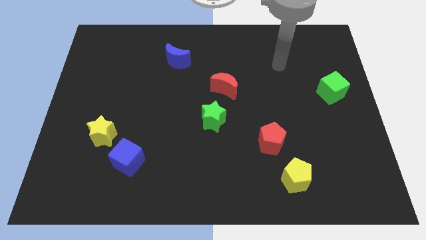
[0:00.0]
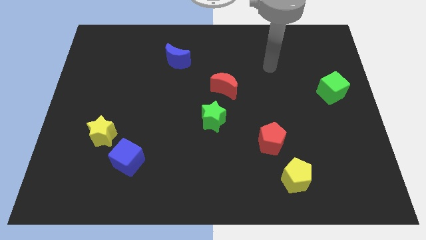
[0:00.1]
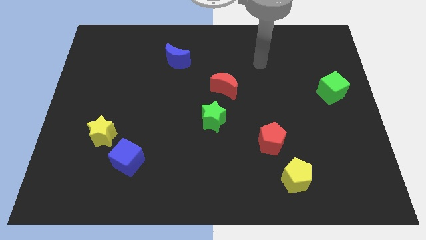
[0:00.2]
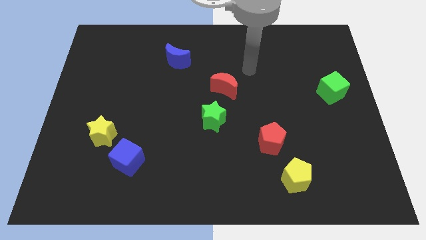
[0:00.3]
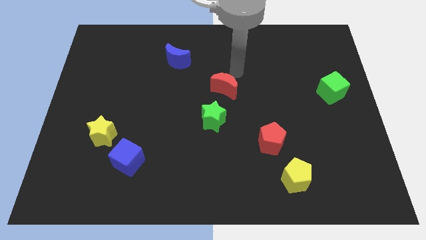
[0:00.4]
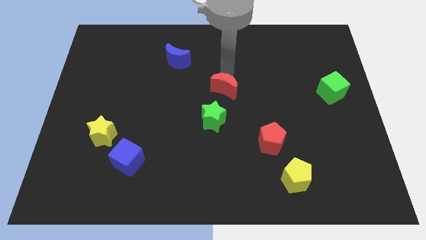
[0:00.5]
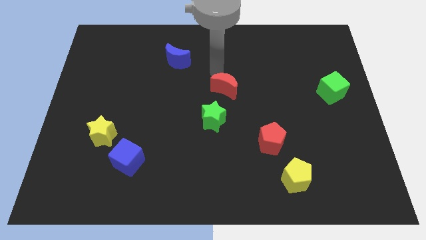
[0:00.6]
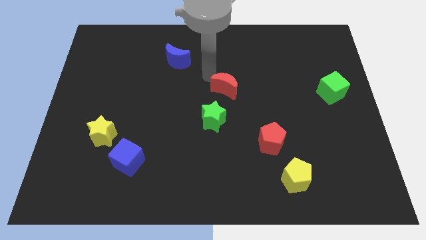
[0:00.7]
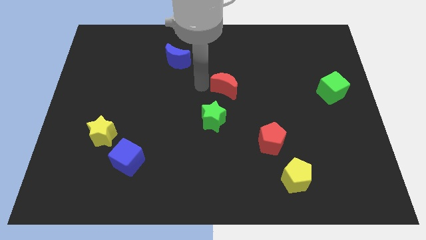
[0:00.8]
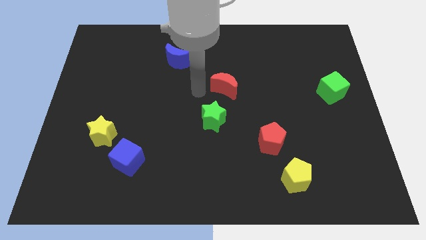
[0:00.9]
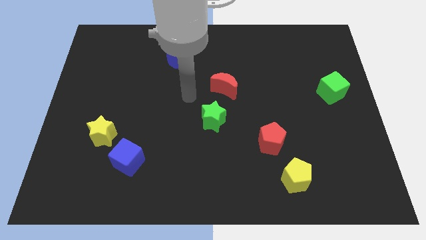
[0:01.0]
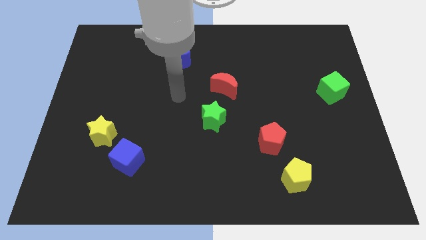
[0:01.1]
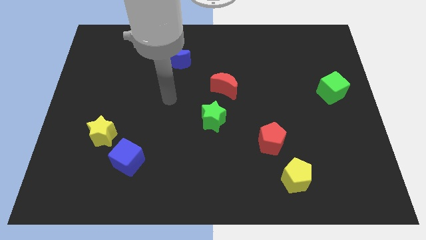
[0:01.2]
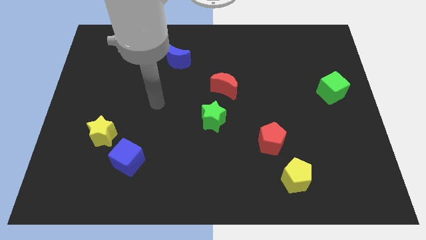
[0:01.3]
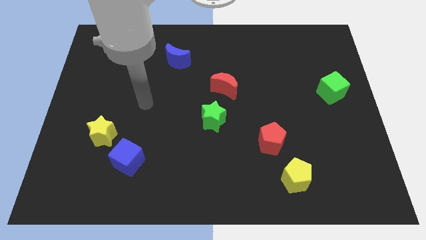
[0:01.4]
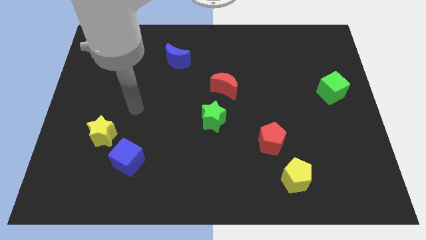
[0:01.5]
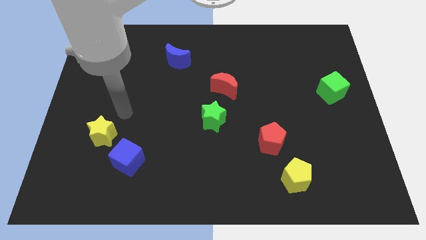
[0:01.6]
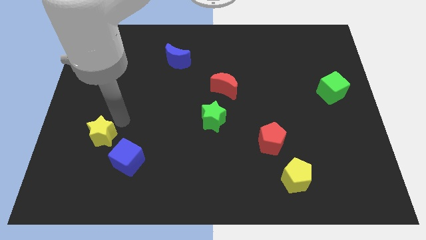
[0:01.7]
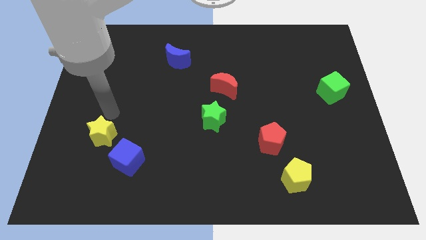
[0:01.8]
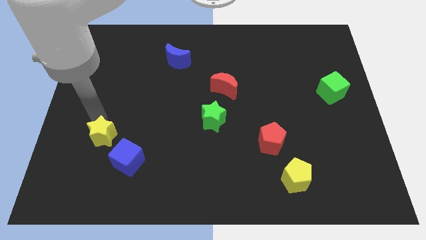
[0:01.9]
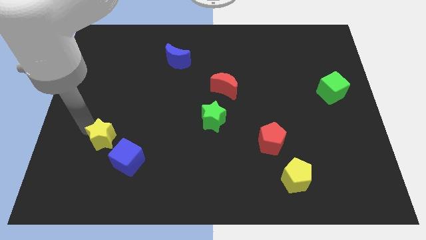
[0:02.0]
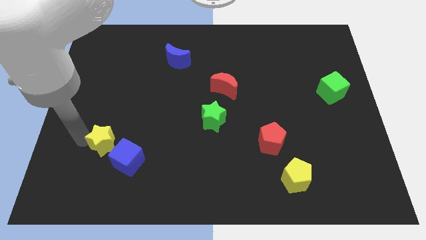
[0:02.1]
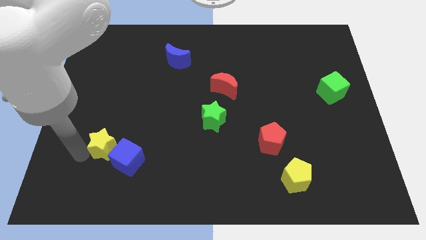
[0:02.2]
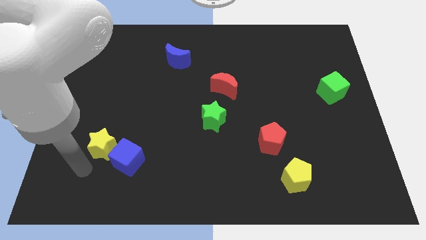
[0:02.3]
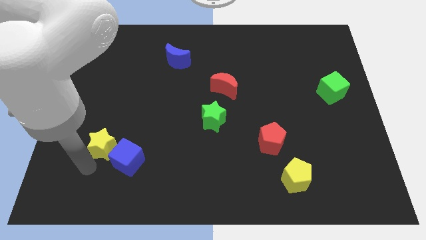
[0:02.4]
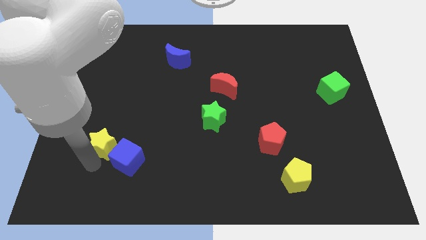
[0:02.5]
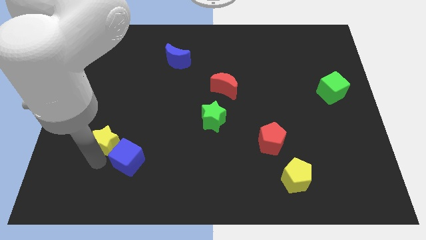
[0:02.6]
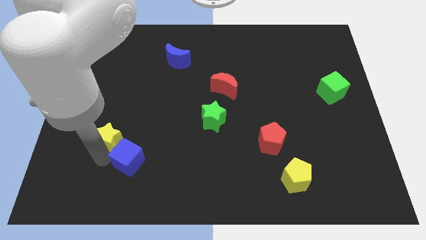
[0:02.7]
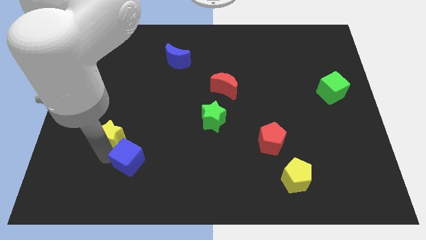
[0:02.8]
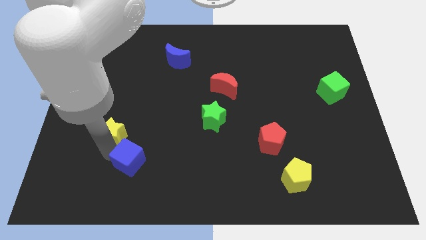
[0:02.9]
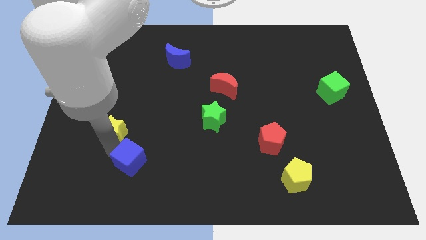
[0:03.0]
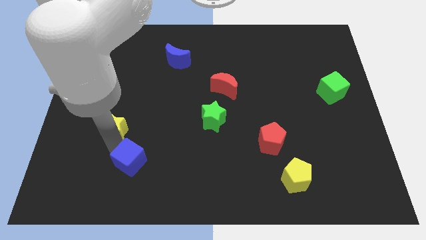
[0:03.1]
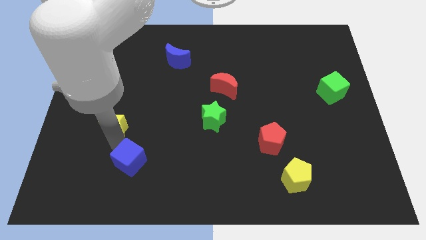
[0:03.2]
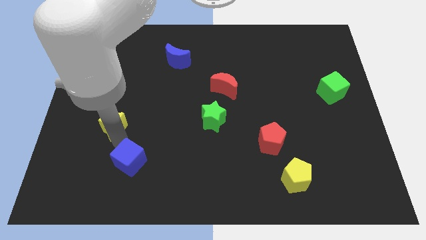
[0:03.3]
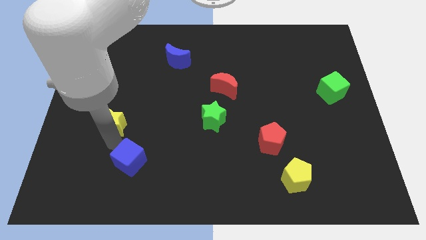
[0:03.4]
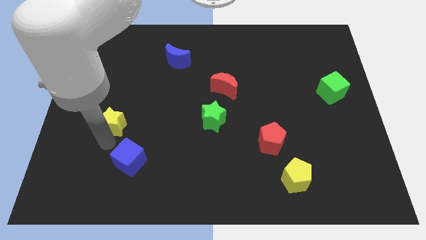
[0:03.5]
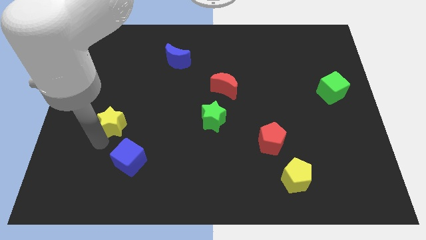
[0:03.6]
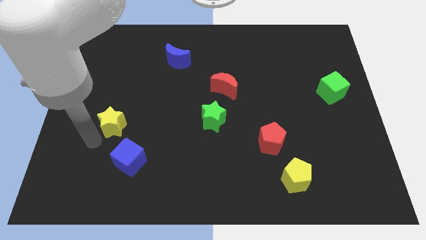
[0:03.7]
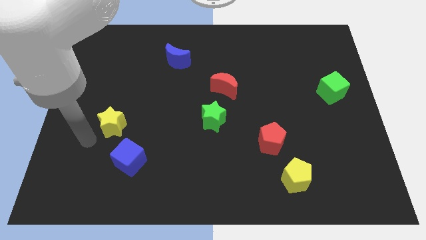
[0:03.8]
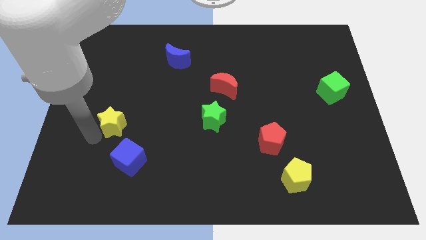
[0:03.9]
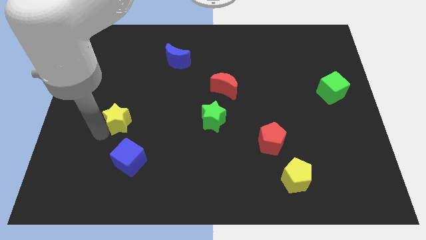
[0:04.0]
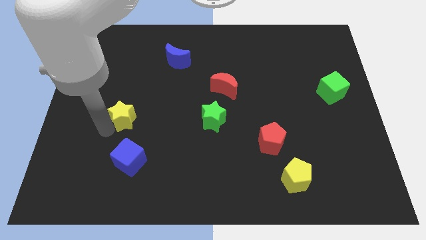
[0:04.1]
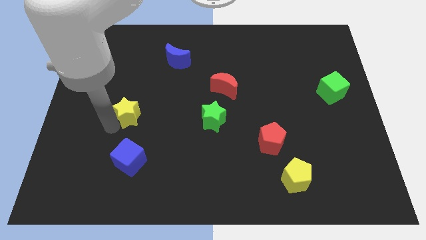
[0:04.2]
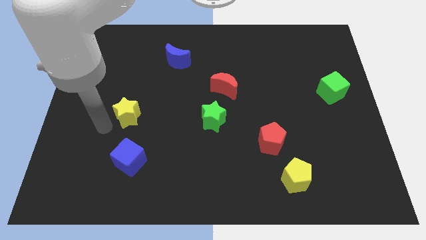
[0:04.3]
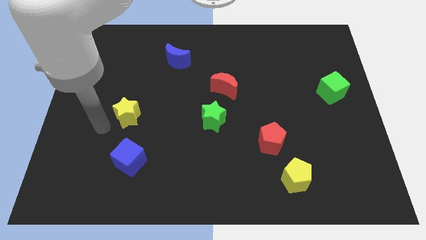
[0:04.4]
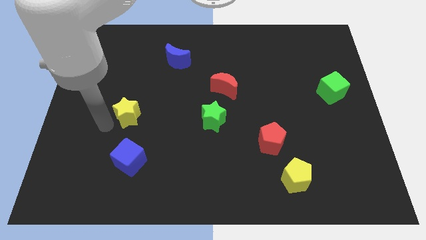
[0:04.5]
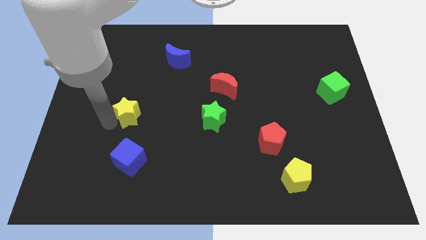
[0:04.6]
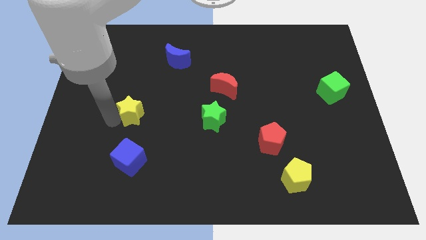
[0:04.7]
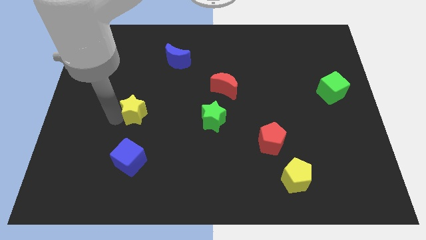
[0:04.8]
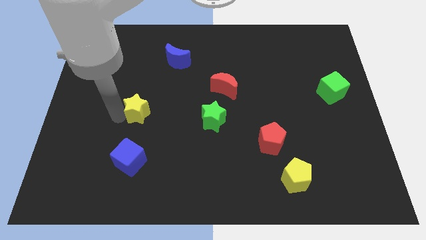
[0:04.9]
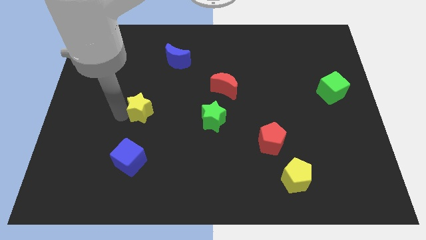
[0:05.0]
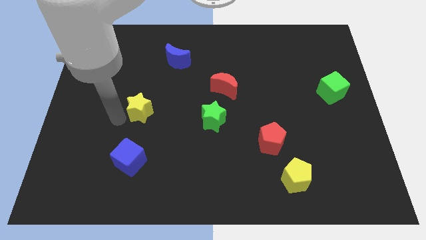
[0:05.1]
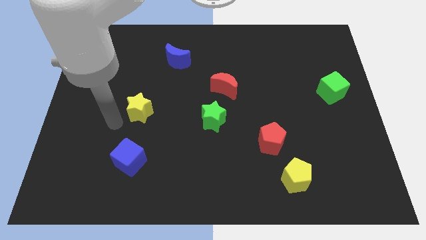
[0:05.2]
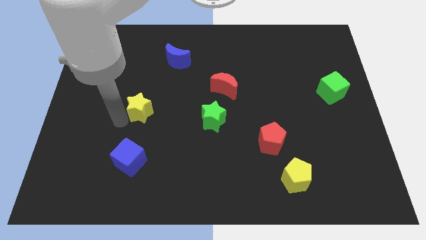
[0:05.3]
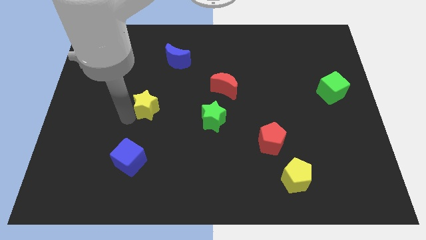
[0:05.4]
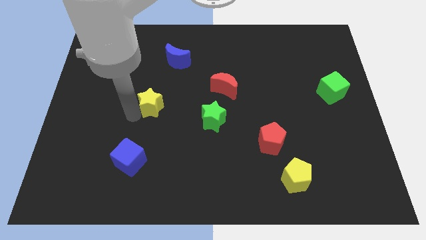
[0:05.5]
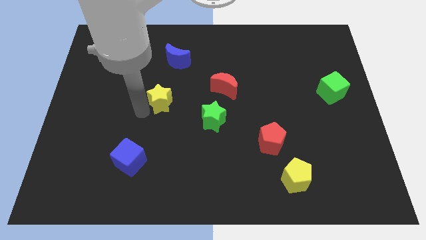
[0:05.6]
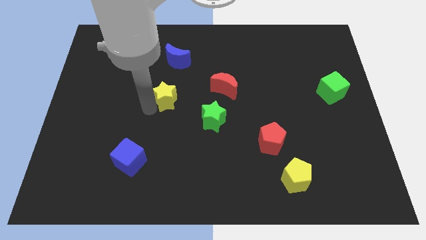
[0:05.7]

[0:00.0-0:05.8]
move the yellow star left of the red moon

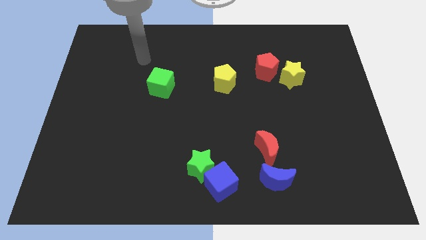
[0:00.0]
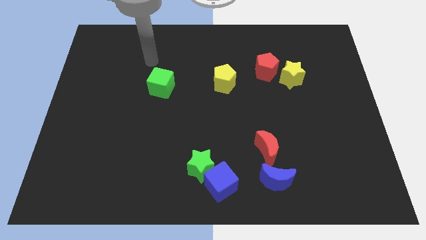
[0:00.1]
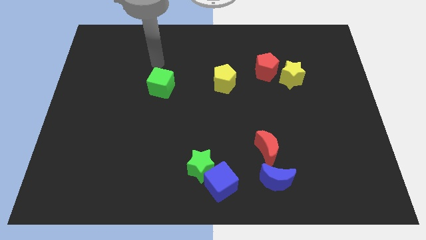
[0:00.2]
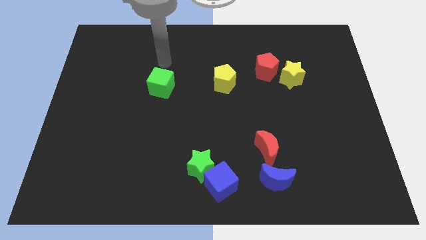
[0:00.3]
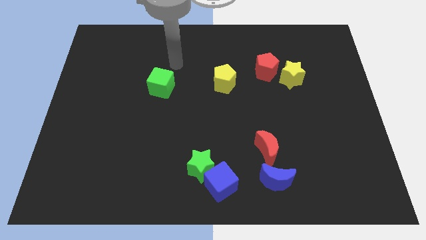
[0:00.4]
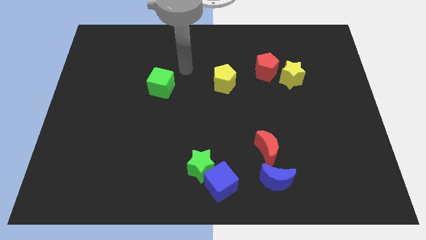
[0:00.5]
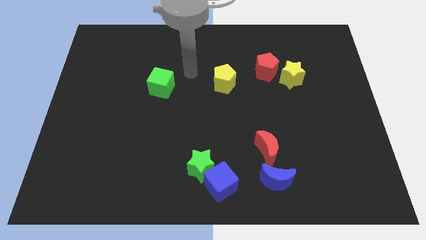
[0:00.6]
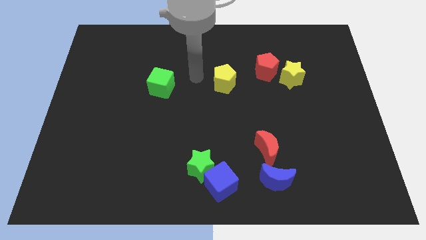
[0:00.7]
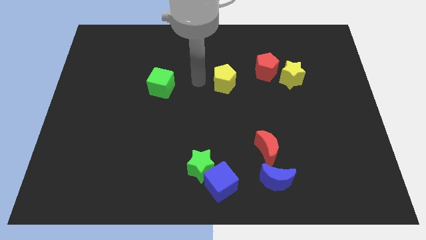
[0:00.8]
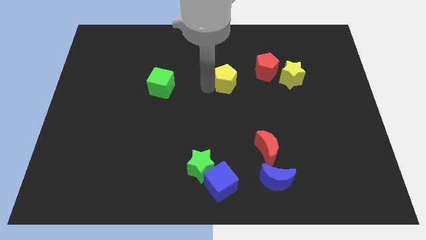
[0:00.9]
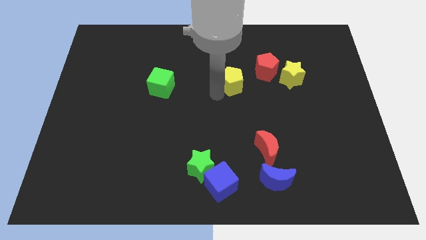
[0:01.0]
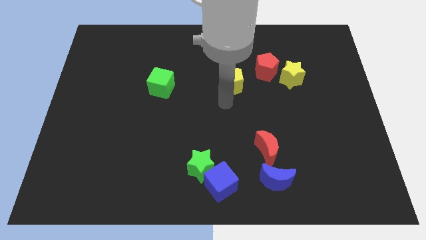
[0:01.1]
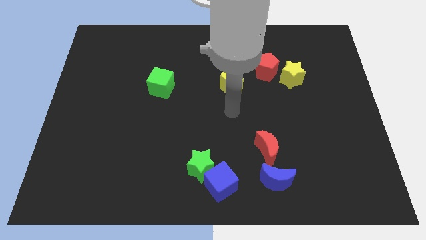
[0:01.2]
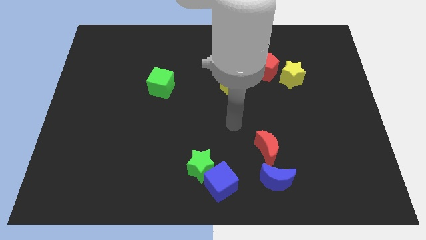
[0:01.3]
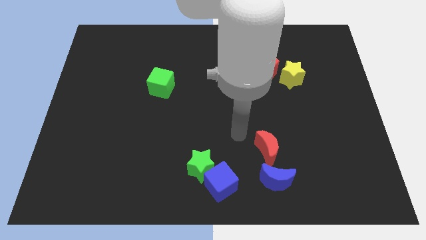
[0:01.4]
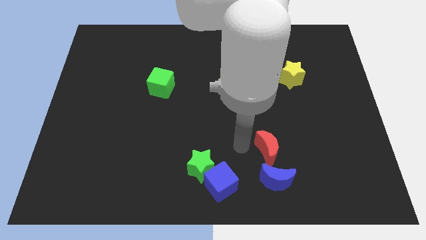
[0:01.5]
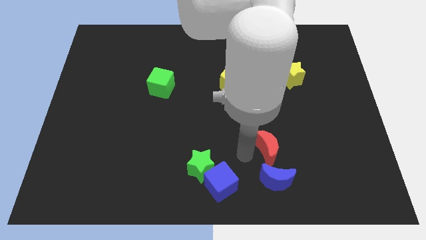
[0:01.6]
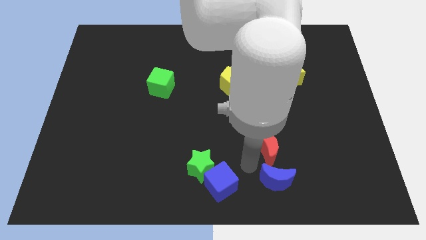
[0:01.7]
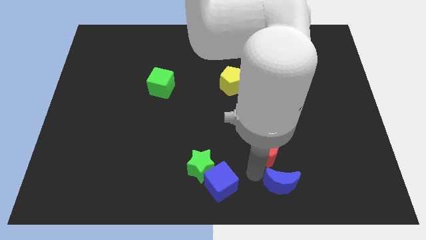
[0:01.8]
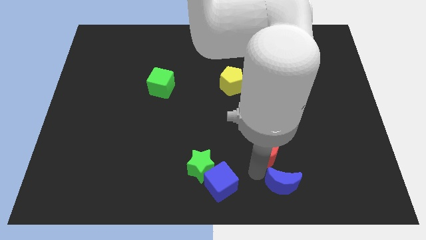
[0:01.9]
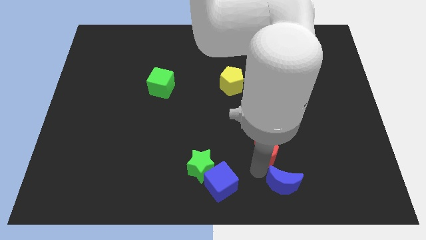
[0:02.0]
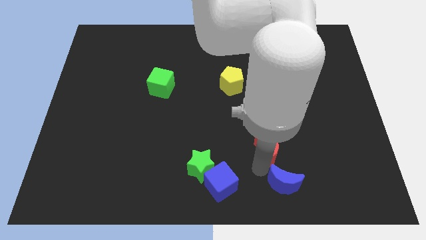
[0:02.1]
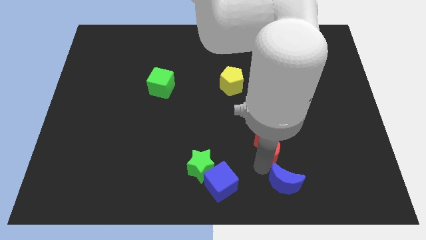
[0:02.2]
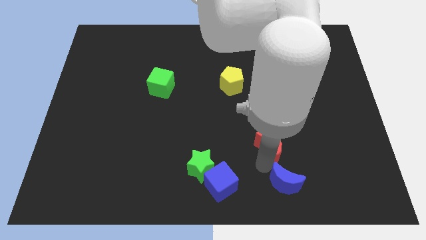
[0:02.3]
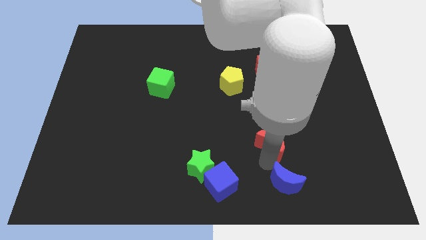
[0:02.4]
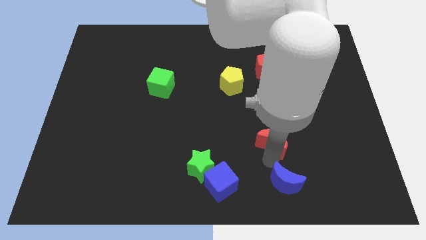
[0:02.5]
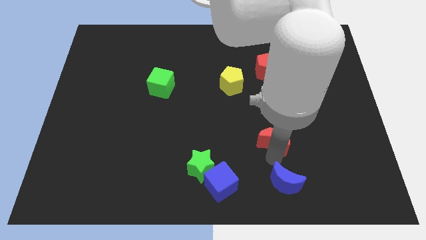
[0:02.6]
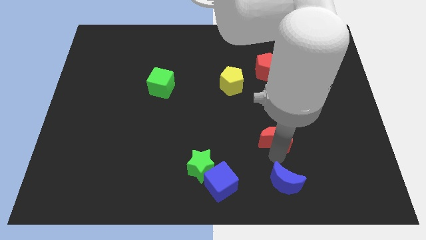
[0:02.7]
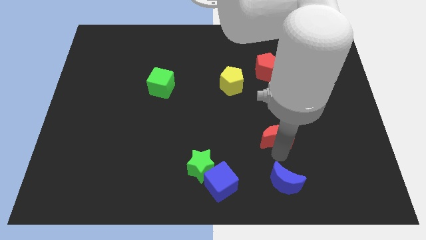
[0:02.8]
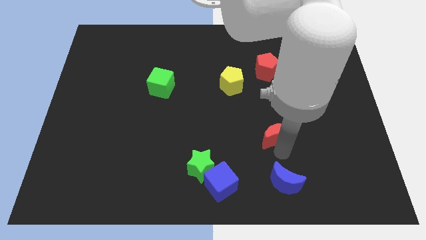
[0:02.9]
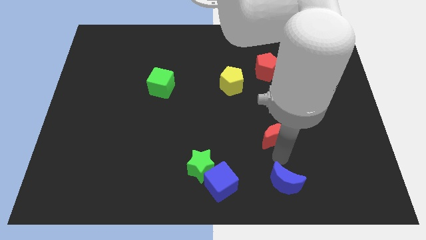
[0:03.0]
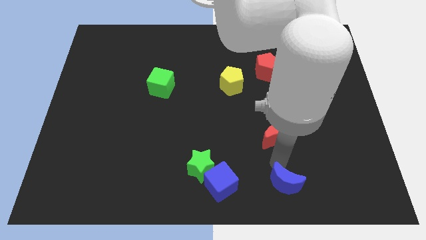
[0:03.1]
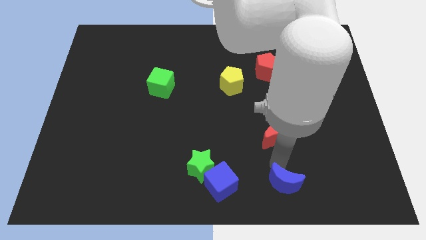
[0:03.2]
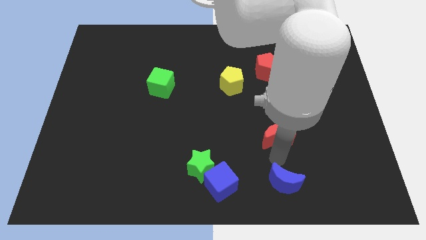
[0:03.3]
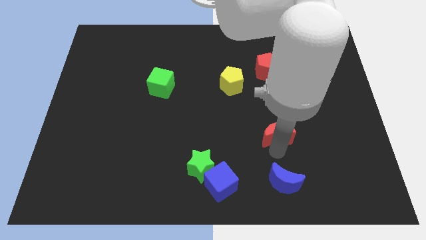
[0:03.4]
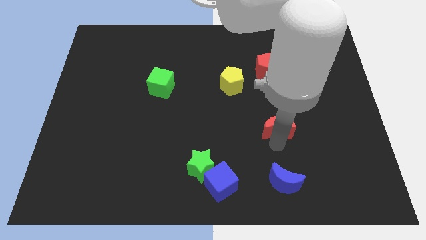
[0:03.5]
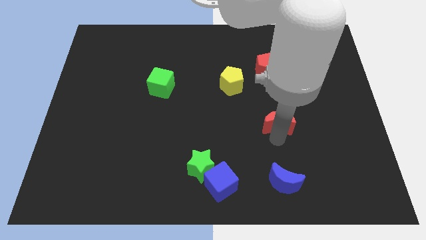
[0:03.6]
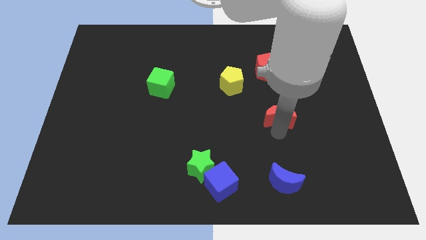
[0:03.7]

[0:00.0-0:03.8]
move the red moon to the bottom of the red pentagon
